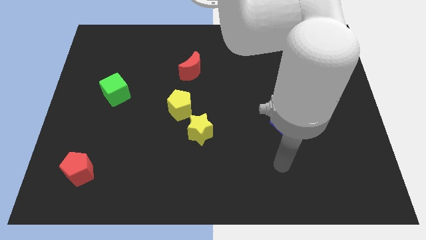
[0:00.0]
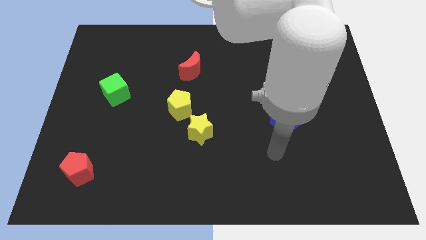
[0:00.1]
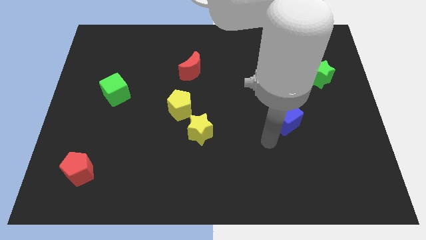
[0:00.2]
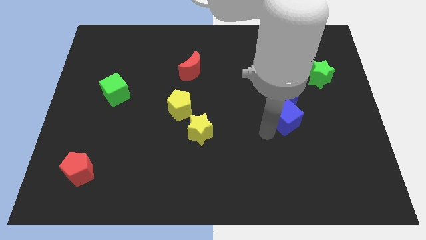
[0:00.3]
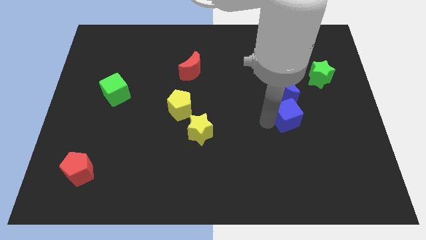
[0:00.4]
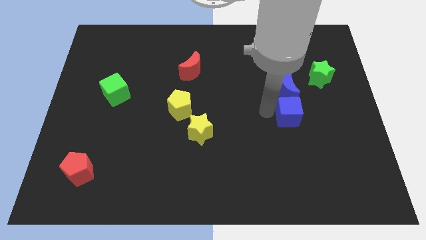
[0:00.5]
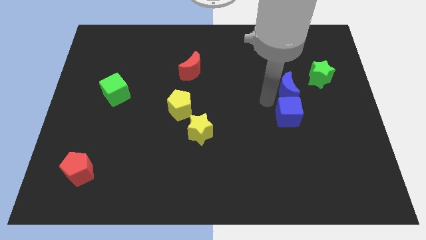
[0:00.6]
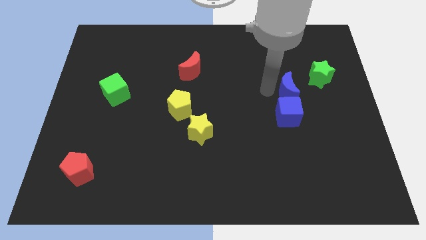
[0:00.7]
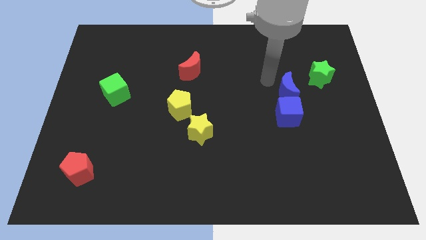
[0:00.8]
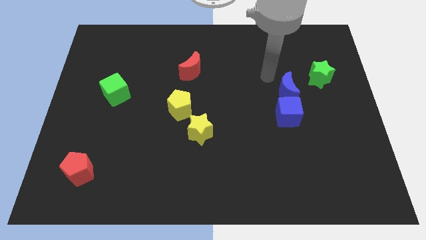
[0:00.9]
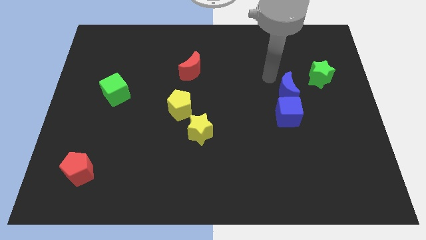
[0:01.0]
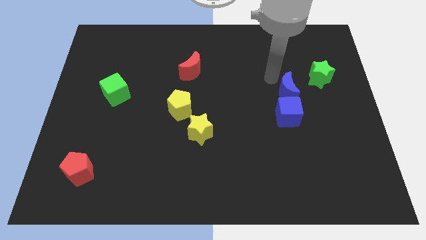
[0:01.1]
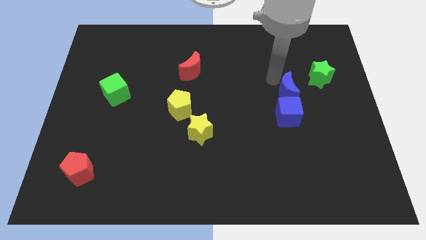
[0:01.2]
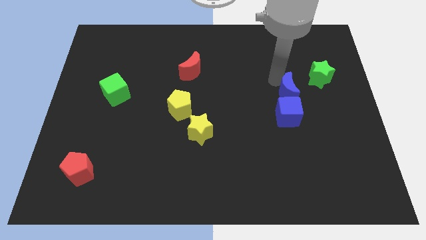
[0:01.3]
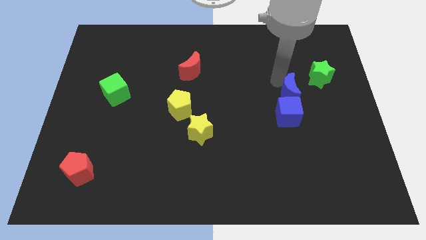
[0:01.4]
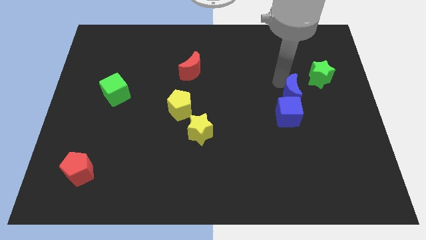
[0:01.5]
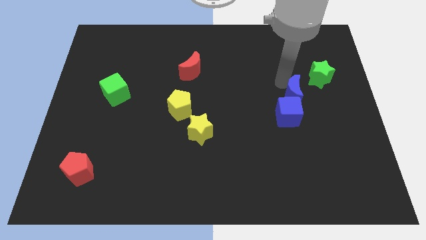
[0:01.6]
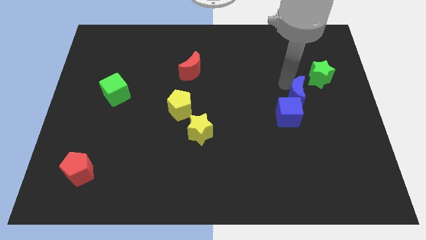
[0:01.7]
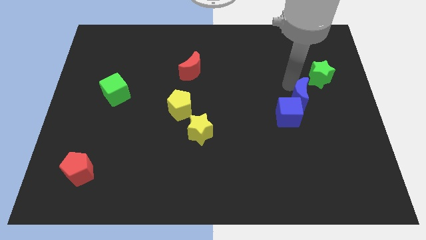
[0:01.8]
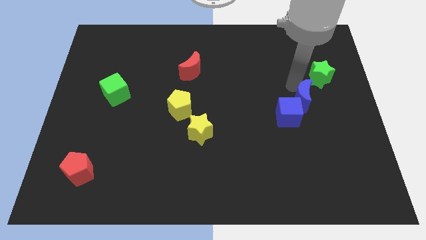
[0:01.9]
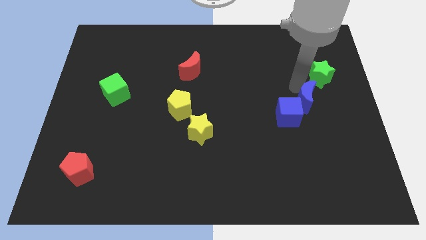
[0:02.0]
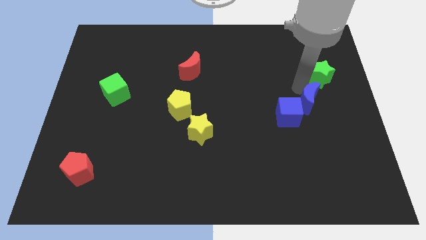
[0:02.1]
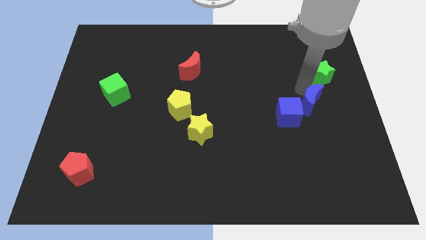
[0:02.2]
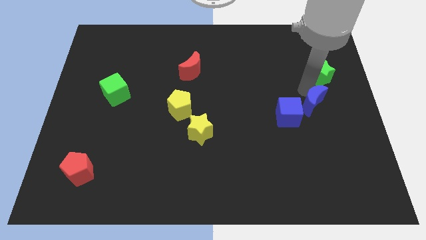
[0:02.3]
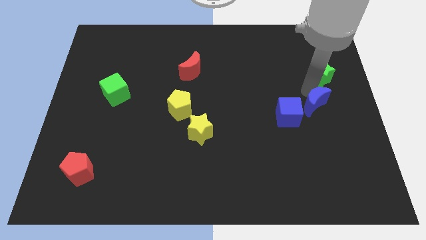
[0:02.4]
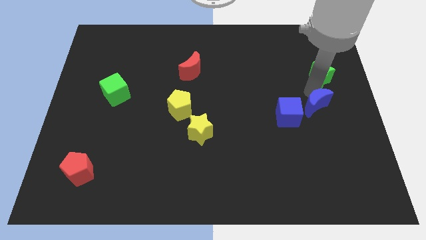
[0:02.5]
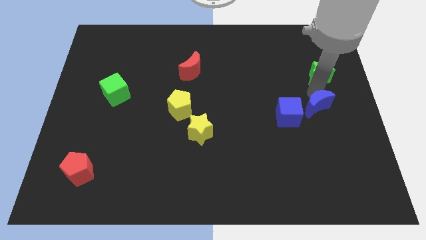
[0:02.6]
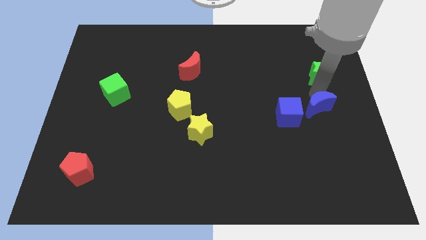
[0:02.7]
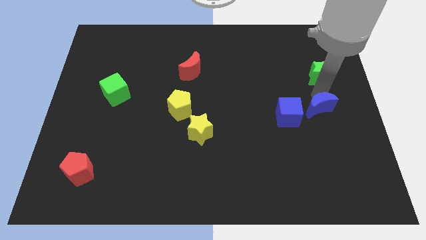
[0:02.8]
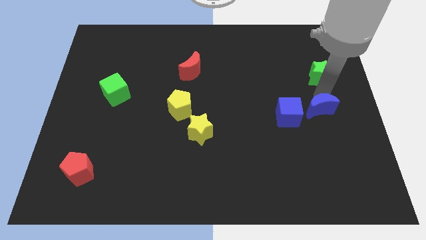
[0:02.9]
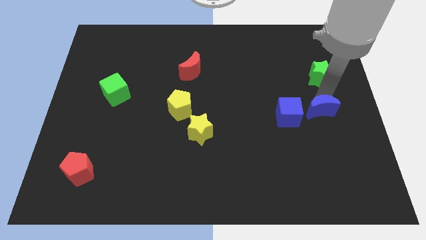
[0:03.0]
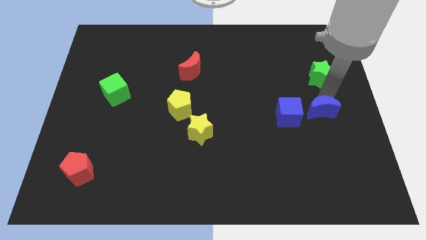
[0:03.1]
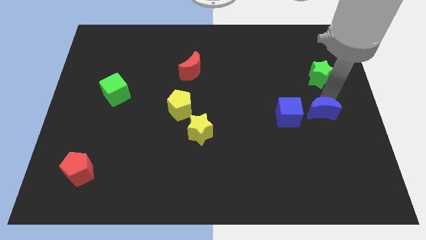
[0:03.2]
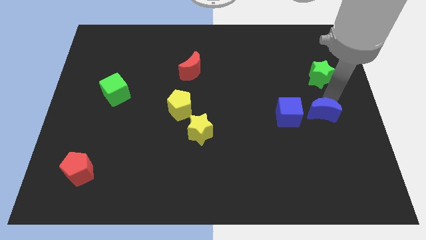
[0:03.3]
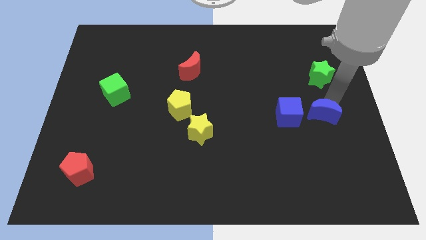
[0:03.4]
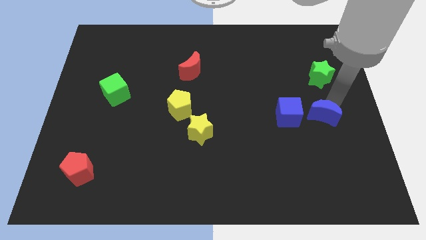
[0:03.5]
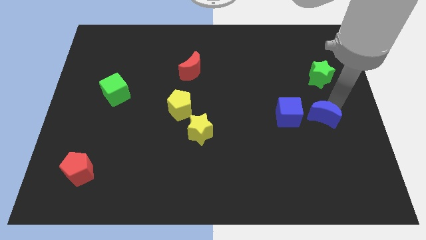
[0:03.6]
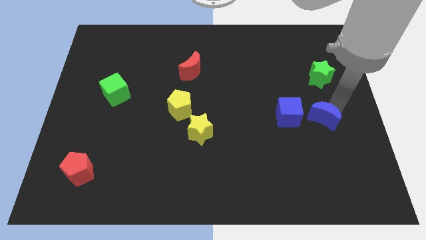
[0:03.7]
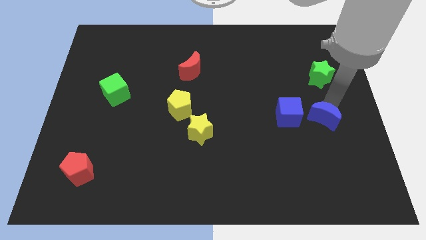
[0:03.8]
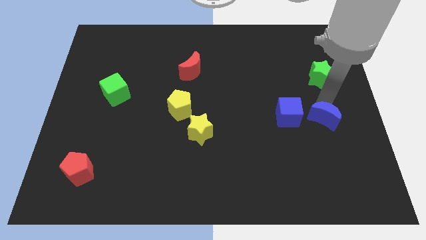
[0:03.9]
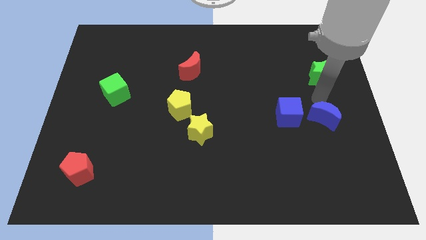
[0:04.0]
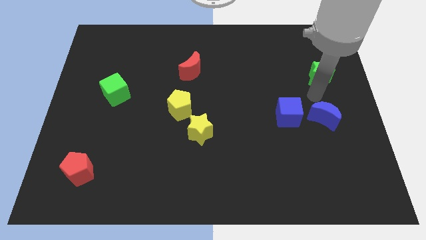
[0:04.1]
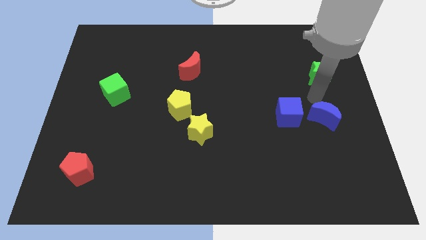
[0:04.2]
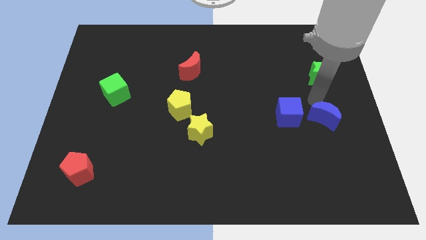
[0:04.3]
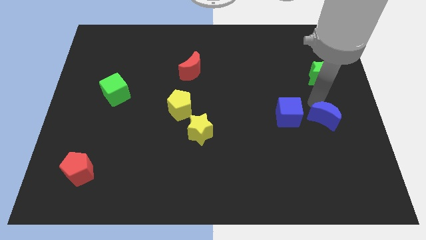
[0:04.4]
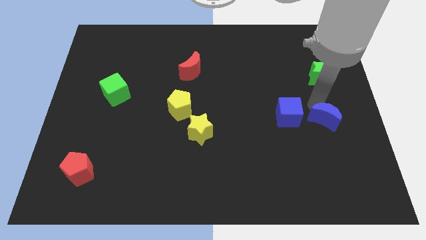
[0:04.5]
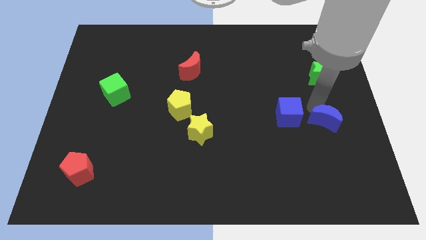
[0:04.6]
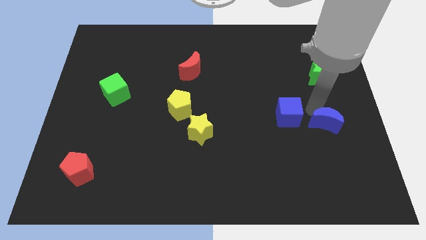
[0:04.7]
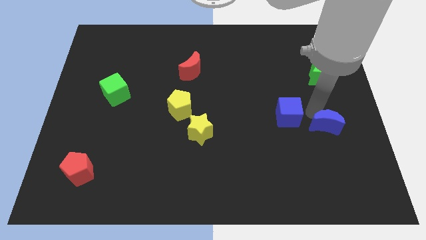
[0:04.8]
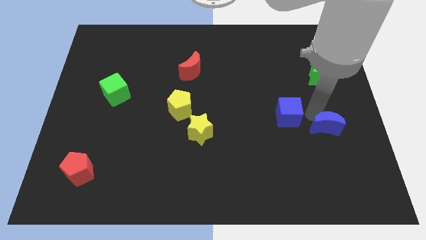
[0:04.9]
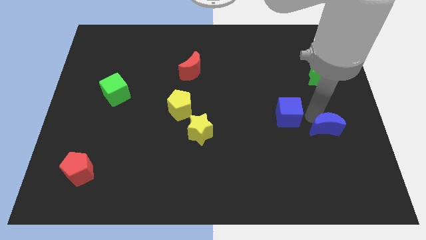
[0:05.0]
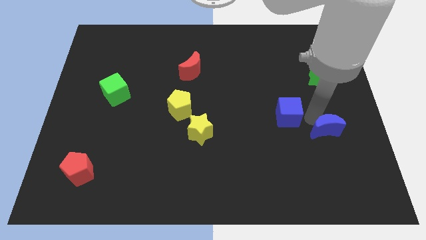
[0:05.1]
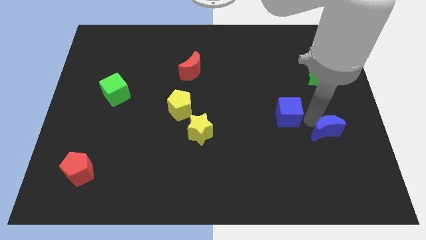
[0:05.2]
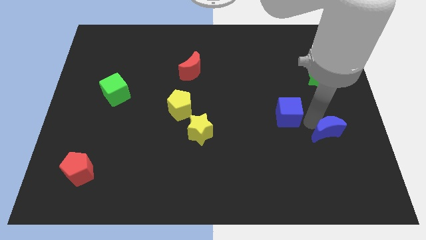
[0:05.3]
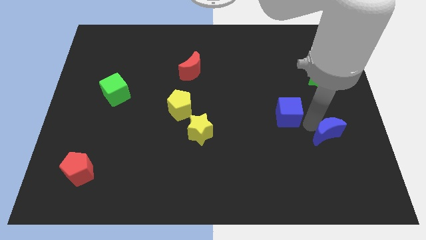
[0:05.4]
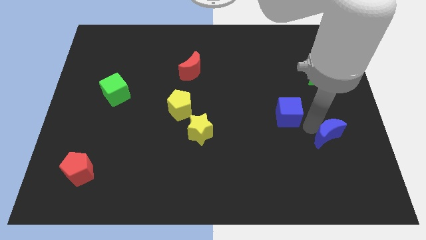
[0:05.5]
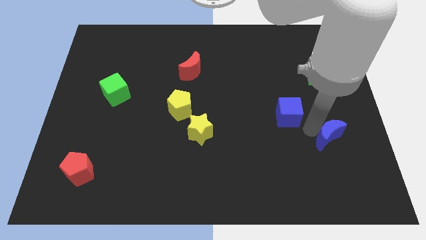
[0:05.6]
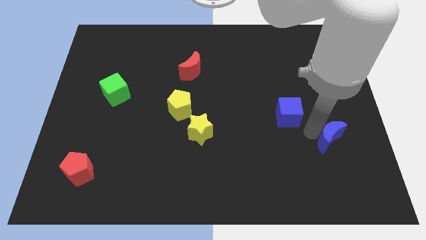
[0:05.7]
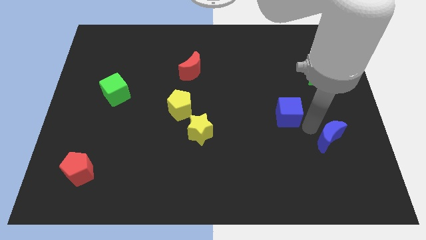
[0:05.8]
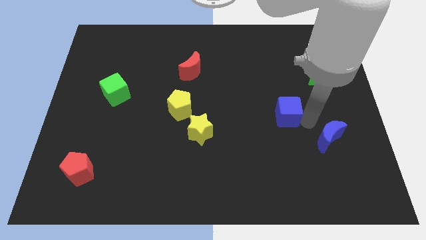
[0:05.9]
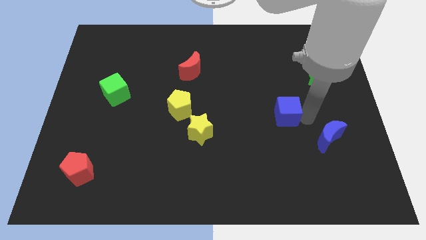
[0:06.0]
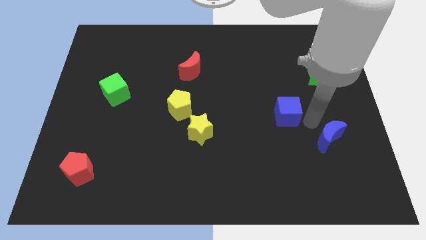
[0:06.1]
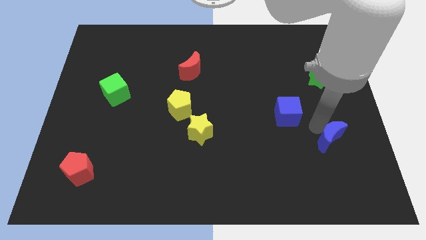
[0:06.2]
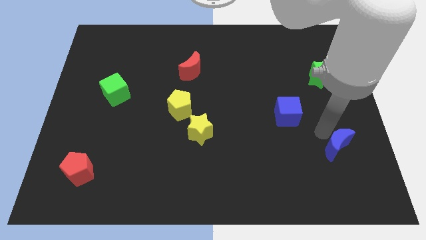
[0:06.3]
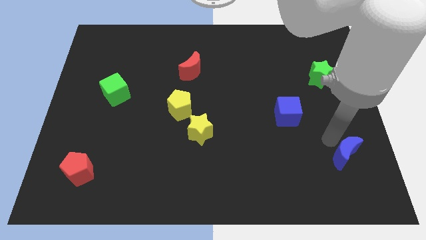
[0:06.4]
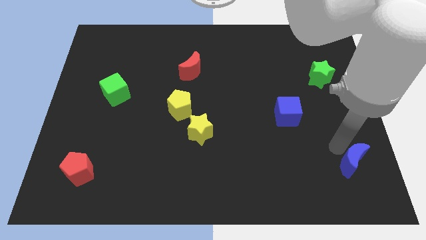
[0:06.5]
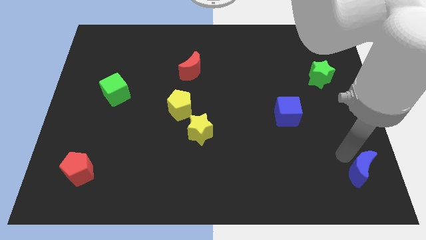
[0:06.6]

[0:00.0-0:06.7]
push the blue moon to the lower right corner

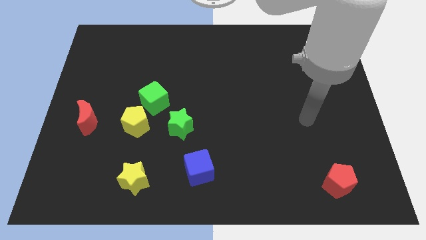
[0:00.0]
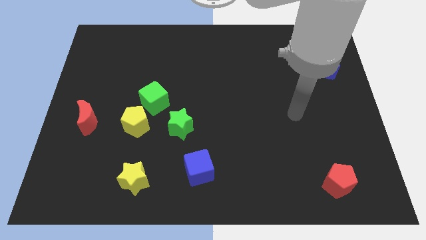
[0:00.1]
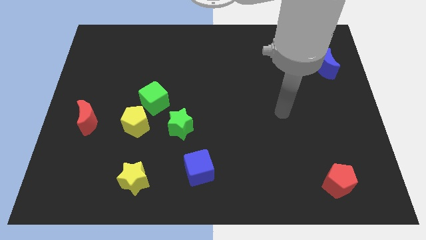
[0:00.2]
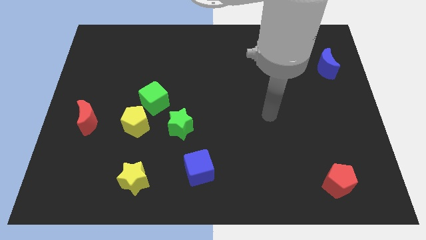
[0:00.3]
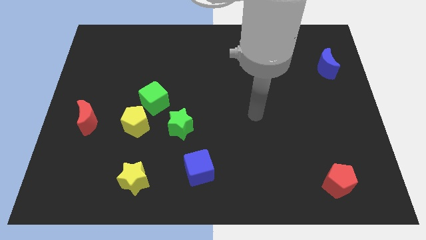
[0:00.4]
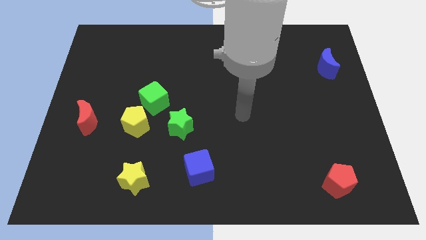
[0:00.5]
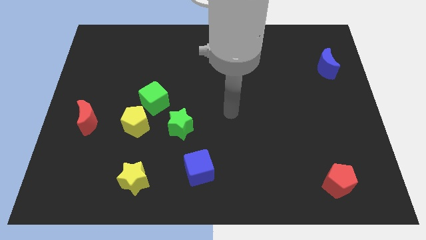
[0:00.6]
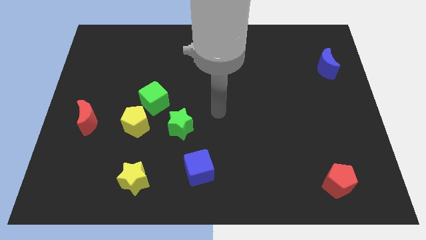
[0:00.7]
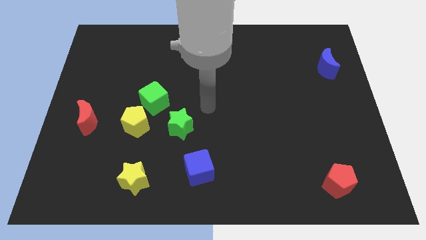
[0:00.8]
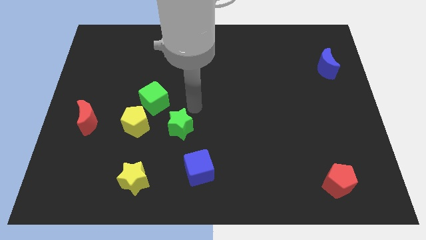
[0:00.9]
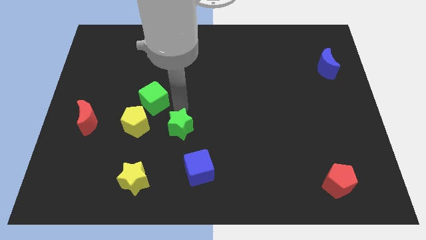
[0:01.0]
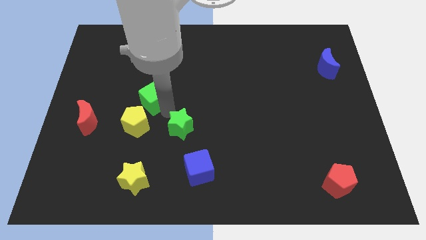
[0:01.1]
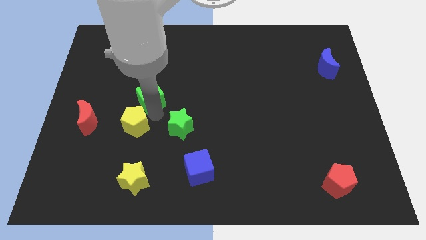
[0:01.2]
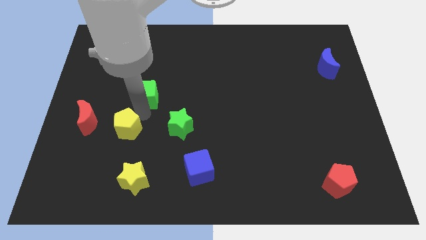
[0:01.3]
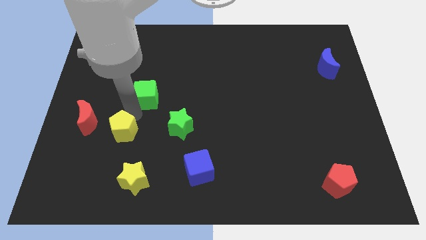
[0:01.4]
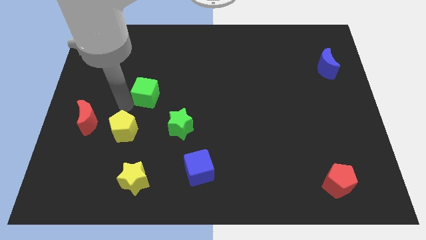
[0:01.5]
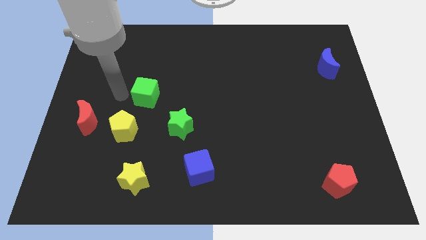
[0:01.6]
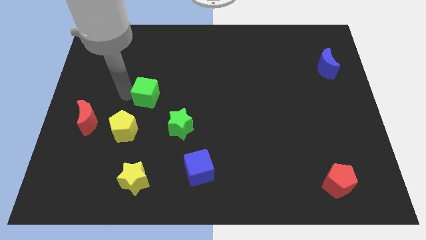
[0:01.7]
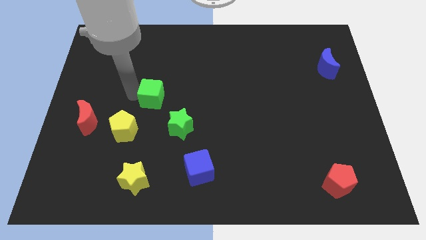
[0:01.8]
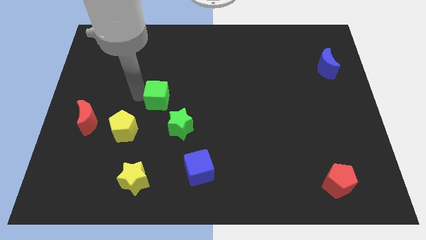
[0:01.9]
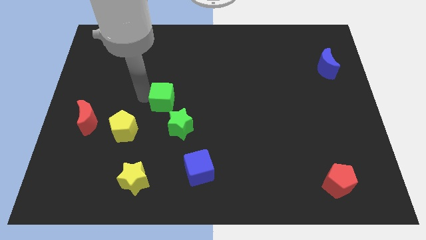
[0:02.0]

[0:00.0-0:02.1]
push the green cube to the center of the board
